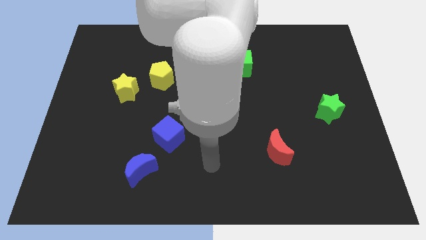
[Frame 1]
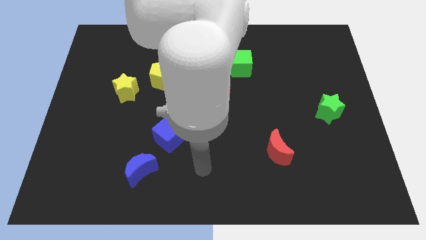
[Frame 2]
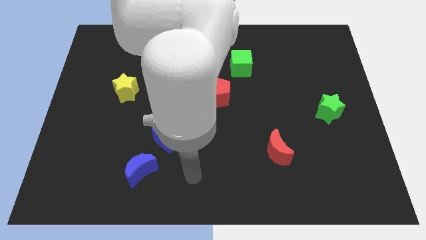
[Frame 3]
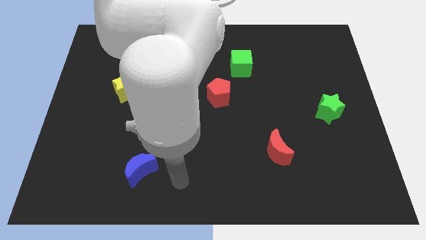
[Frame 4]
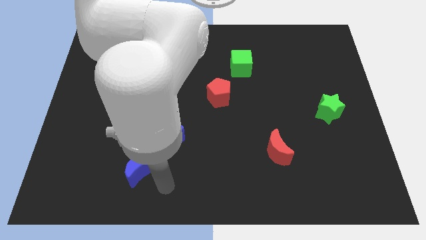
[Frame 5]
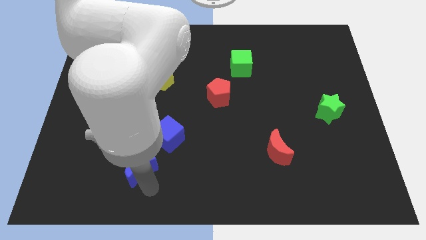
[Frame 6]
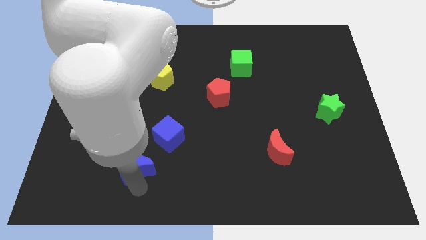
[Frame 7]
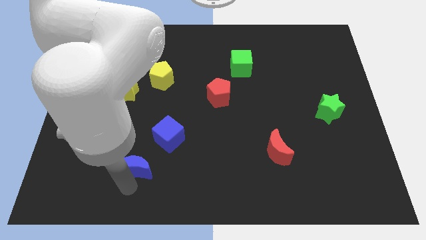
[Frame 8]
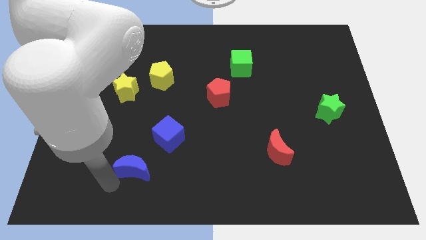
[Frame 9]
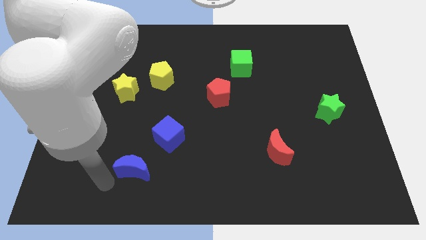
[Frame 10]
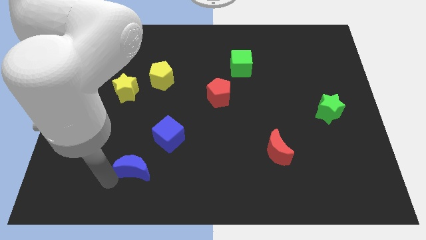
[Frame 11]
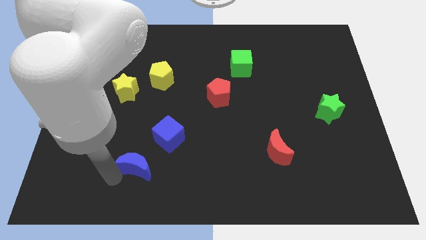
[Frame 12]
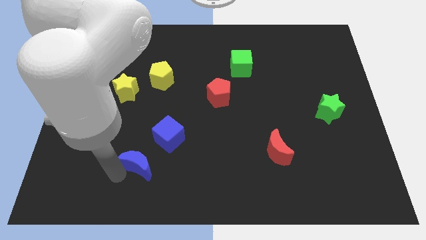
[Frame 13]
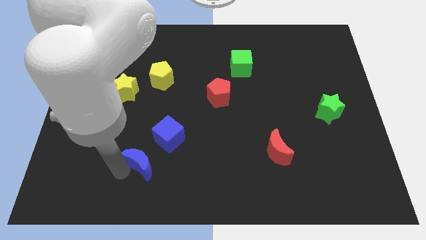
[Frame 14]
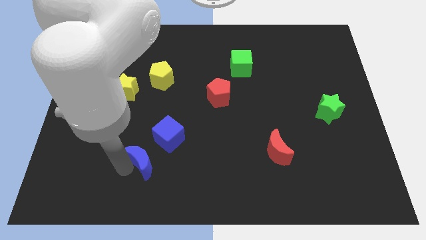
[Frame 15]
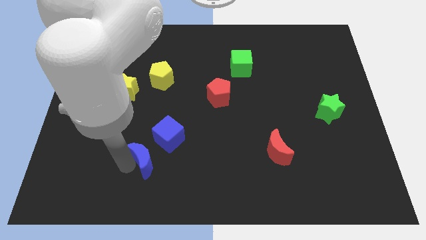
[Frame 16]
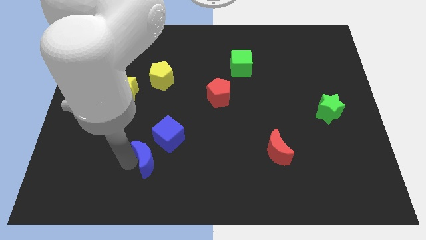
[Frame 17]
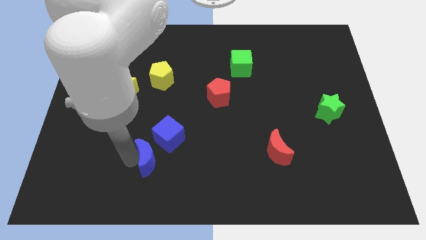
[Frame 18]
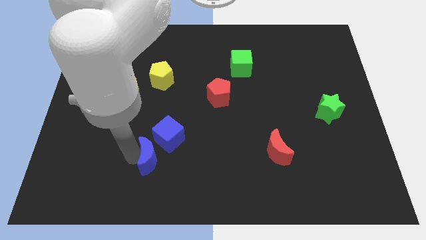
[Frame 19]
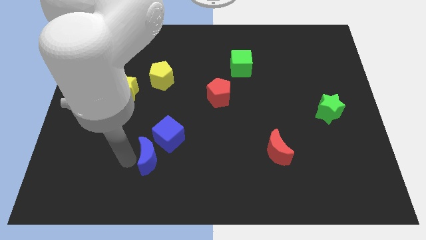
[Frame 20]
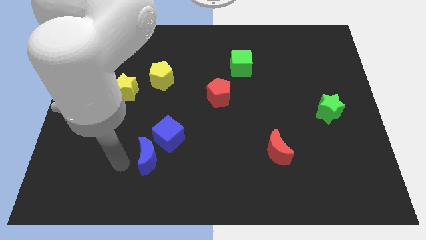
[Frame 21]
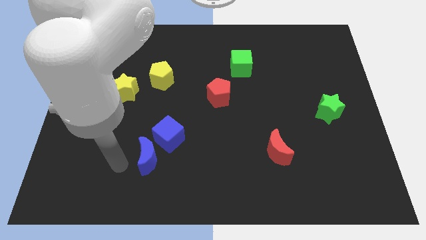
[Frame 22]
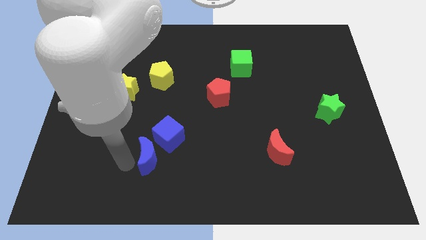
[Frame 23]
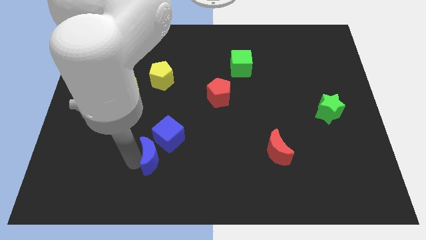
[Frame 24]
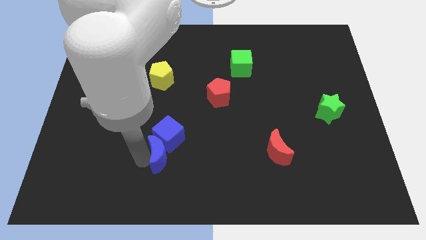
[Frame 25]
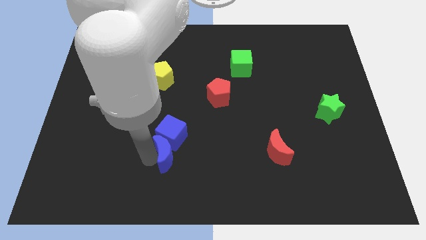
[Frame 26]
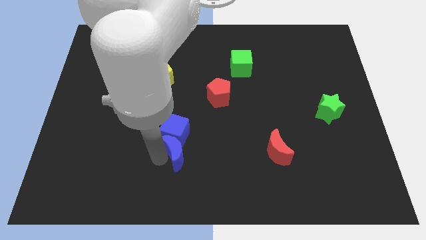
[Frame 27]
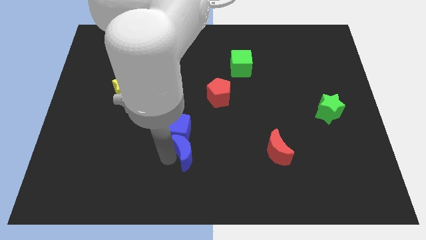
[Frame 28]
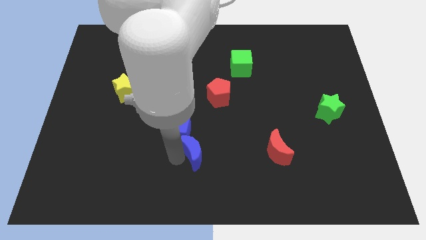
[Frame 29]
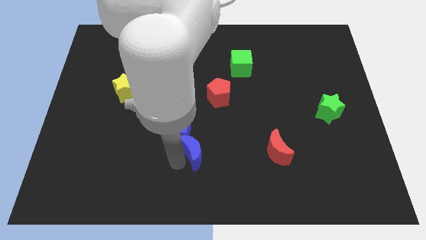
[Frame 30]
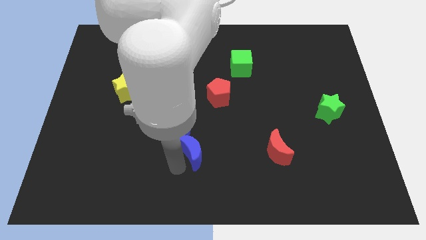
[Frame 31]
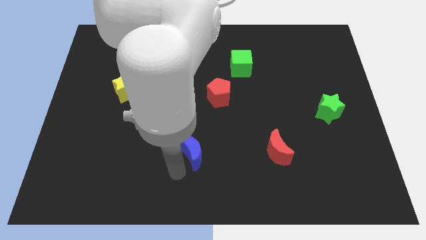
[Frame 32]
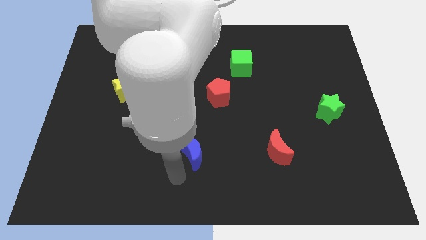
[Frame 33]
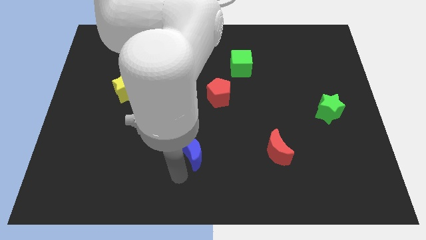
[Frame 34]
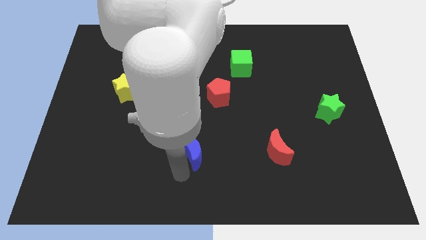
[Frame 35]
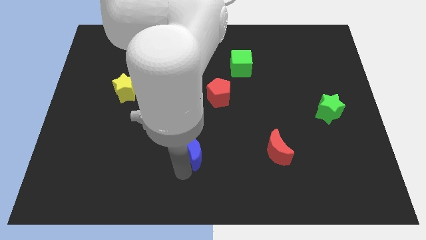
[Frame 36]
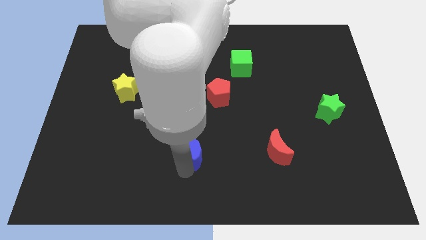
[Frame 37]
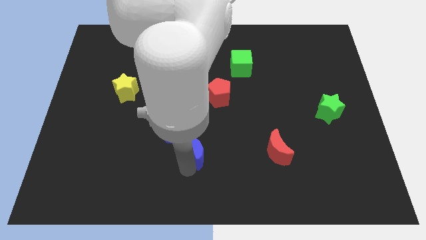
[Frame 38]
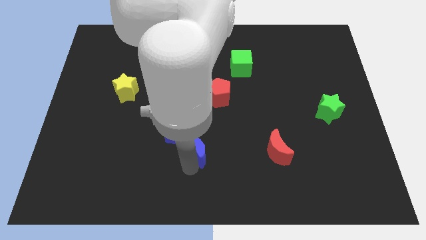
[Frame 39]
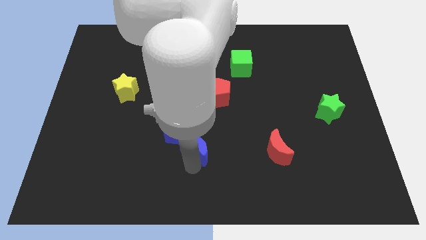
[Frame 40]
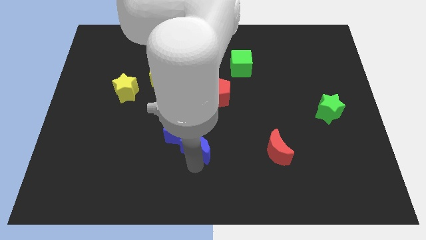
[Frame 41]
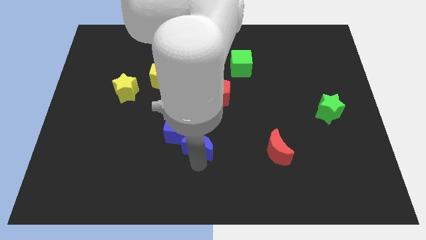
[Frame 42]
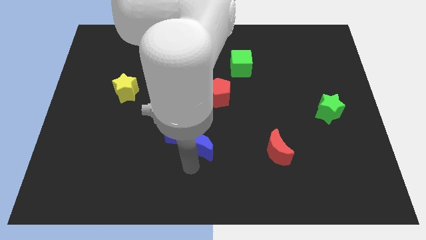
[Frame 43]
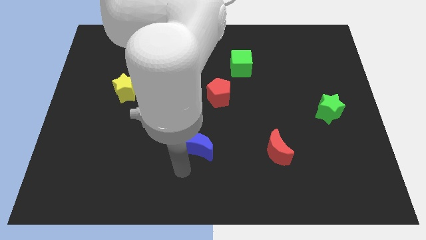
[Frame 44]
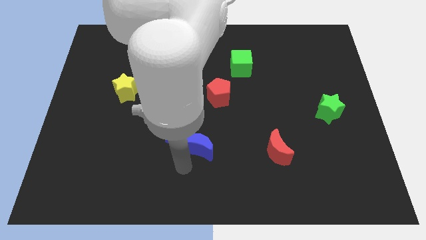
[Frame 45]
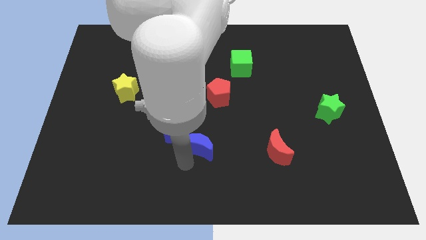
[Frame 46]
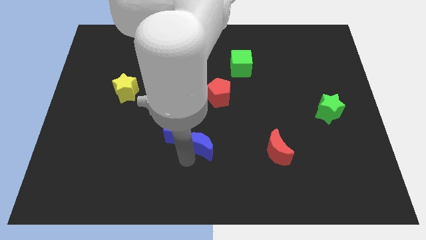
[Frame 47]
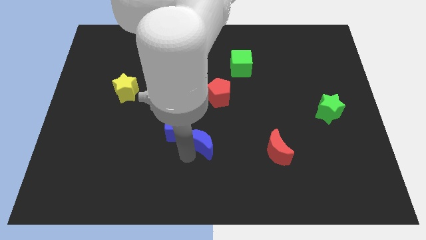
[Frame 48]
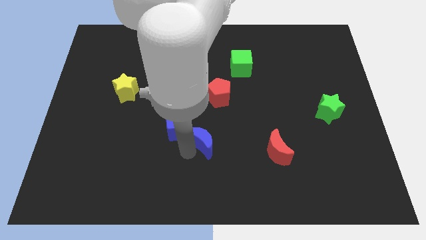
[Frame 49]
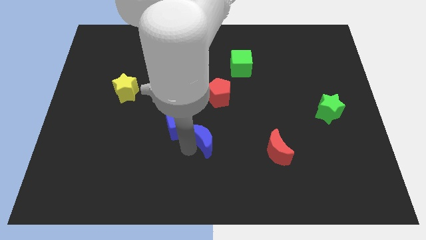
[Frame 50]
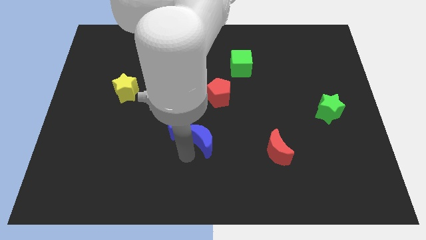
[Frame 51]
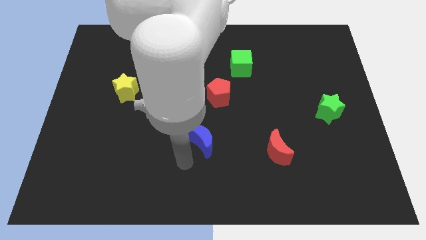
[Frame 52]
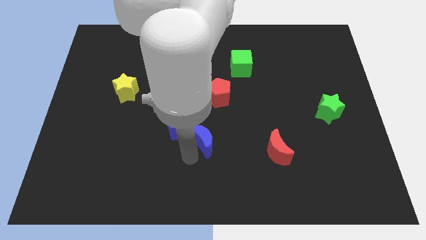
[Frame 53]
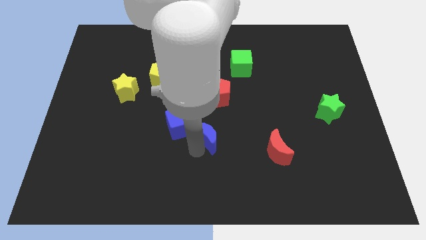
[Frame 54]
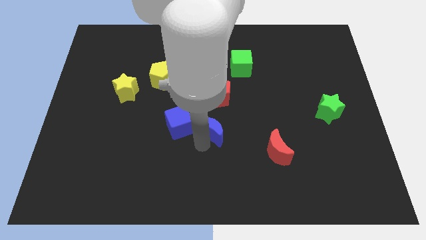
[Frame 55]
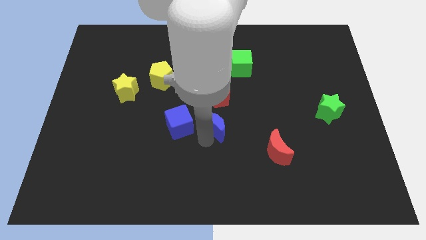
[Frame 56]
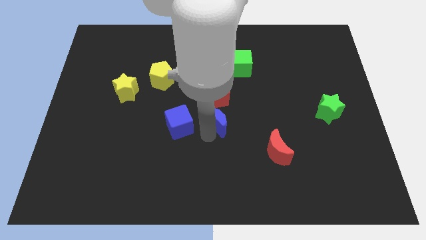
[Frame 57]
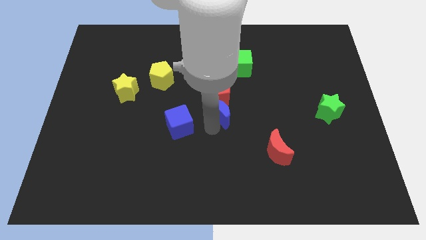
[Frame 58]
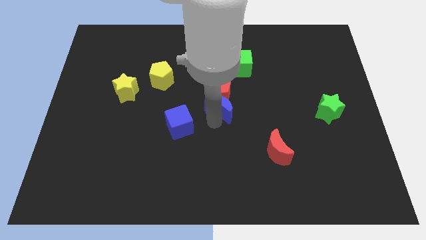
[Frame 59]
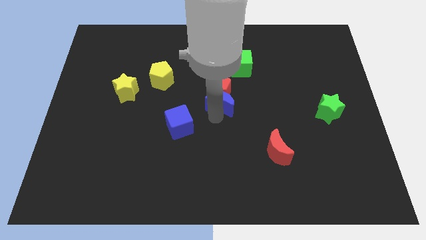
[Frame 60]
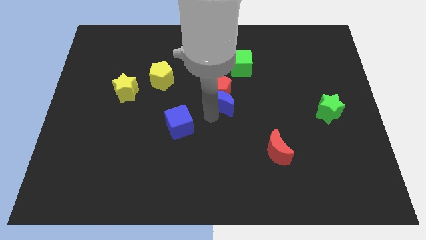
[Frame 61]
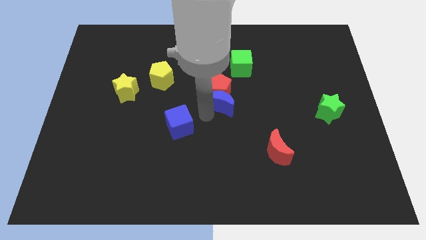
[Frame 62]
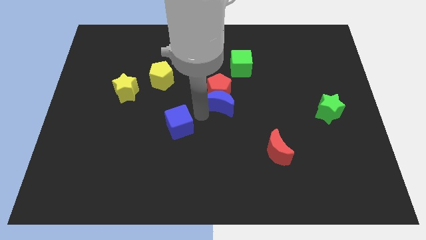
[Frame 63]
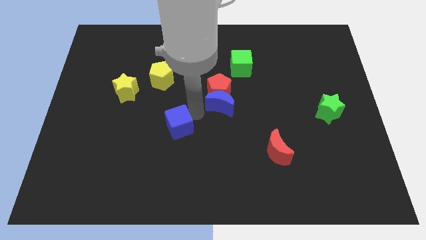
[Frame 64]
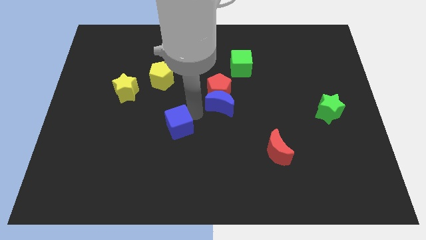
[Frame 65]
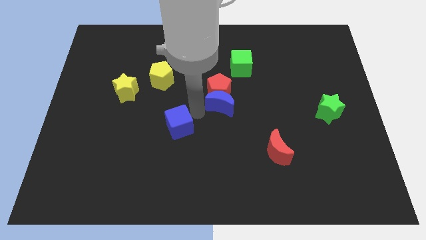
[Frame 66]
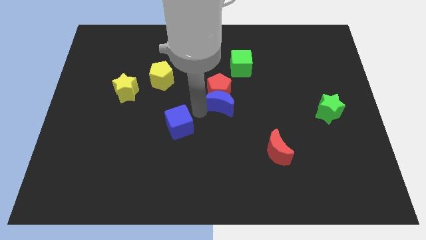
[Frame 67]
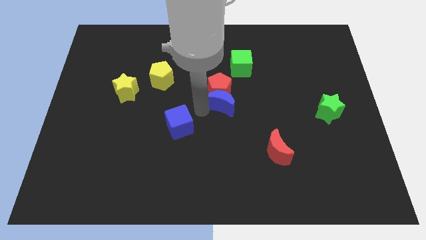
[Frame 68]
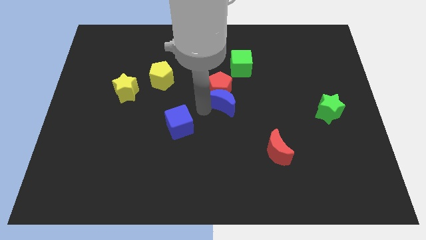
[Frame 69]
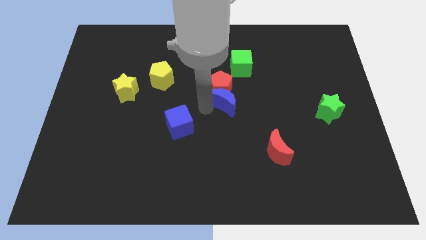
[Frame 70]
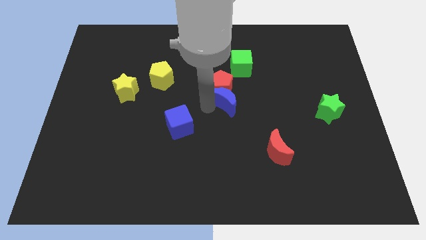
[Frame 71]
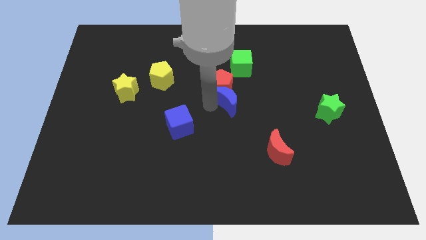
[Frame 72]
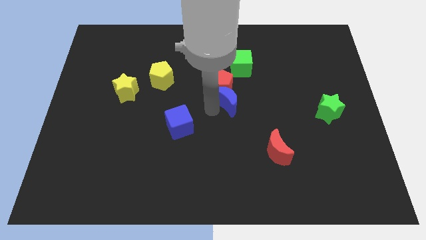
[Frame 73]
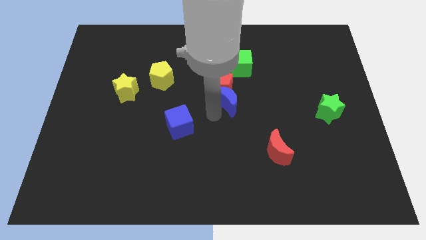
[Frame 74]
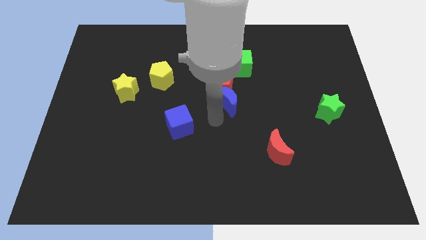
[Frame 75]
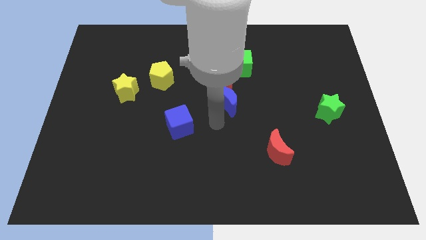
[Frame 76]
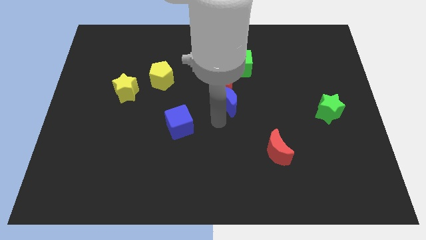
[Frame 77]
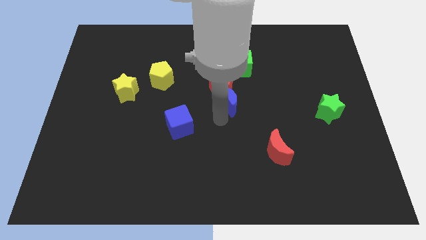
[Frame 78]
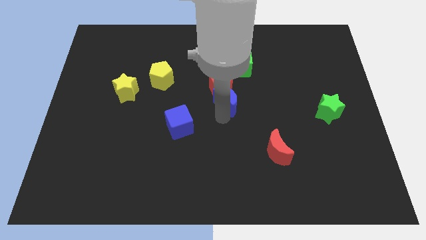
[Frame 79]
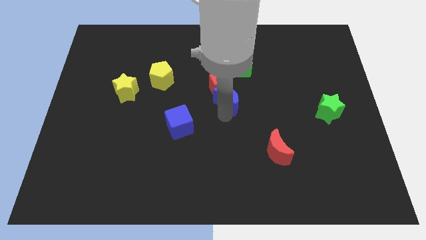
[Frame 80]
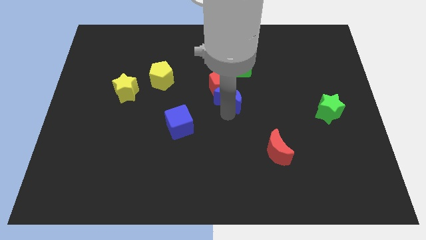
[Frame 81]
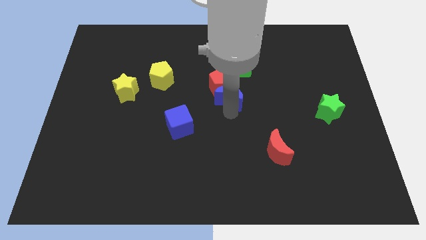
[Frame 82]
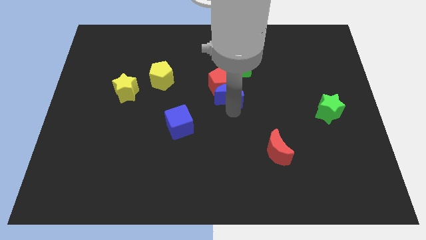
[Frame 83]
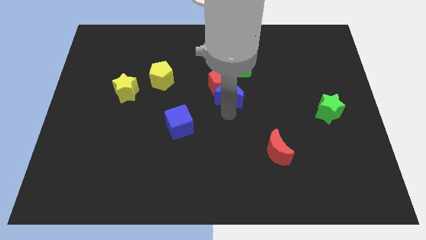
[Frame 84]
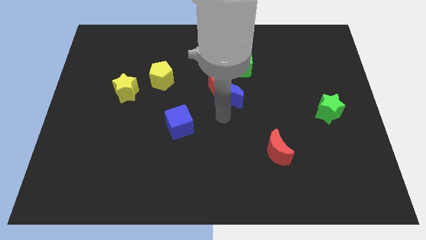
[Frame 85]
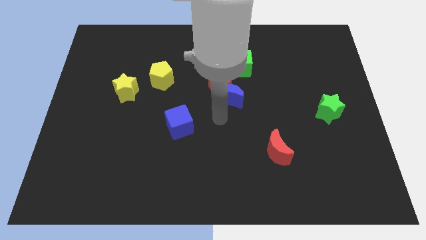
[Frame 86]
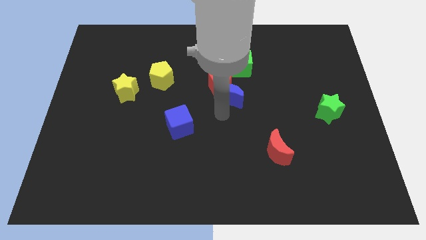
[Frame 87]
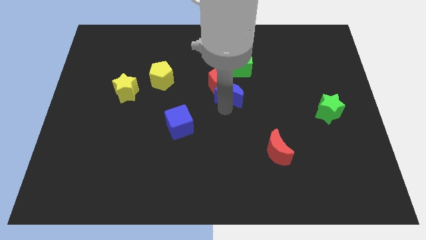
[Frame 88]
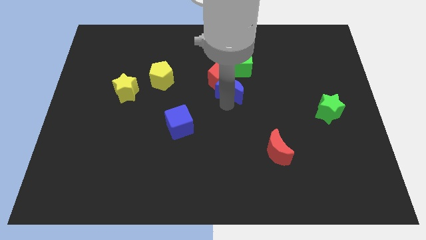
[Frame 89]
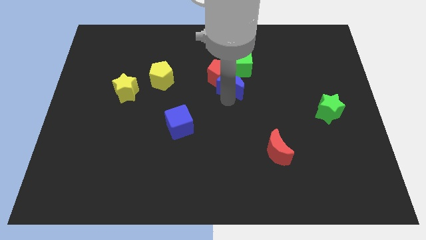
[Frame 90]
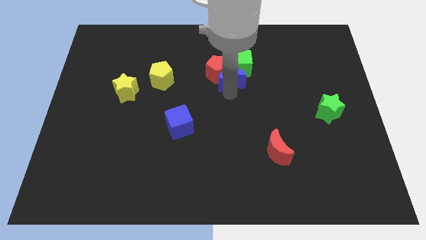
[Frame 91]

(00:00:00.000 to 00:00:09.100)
put the blue moon close to the green cube
